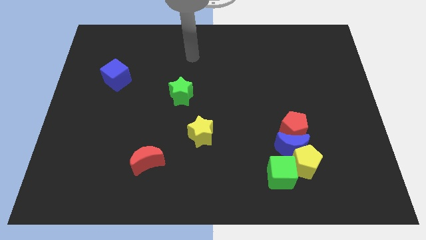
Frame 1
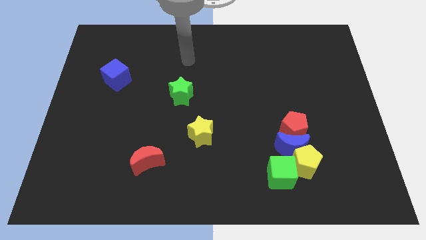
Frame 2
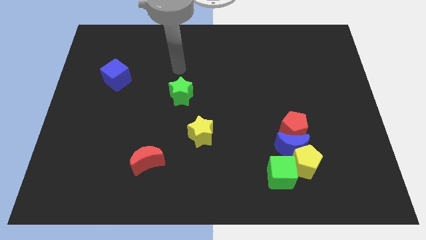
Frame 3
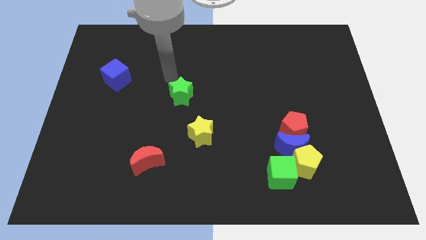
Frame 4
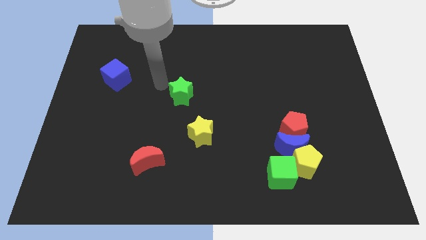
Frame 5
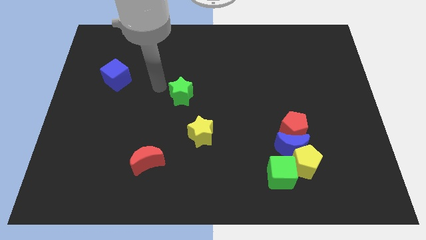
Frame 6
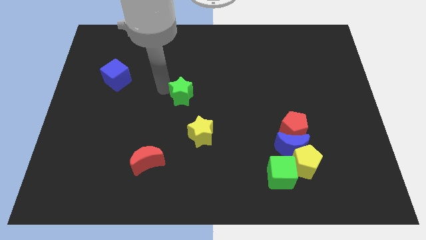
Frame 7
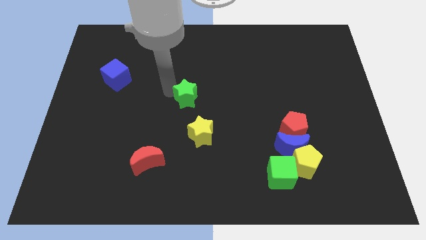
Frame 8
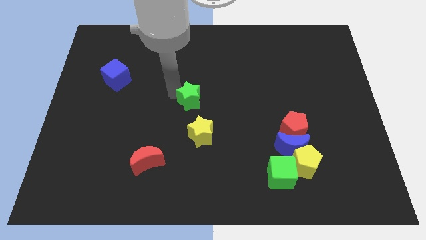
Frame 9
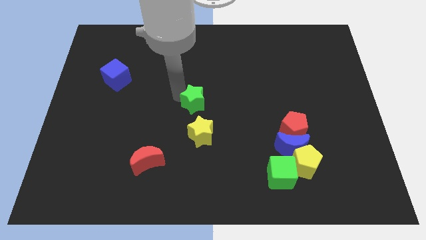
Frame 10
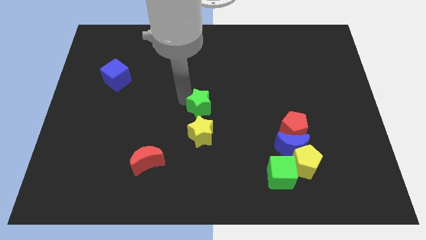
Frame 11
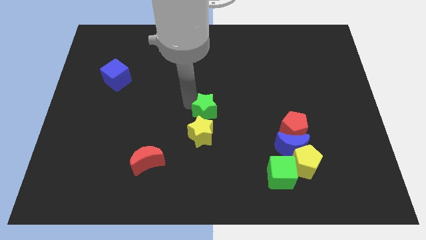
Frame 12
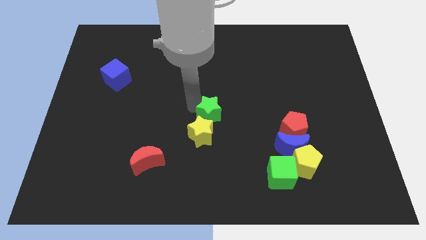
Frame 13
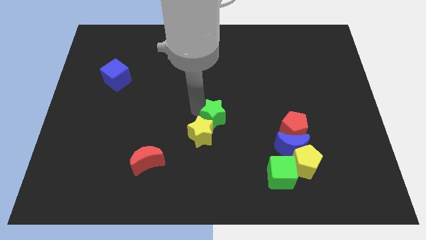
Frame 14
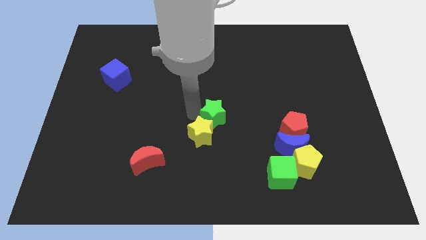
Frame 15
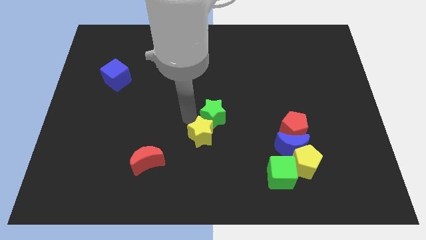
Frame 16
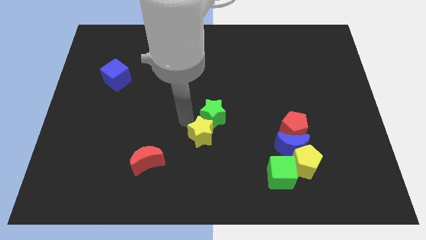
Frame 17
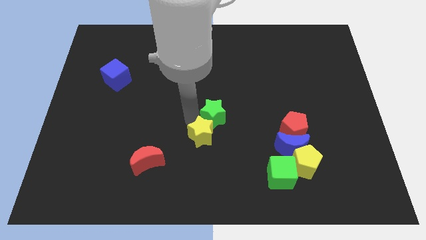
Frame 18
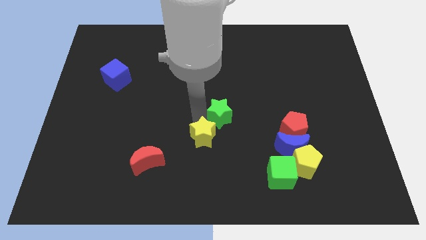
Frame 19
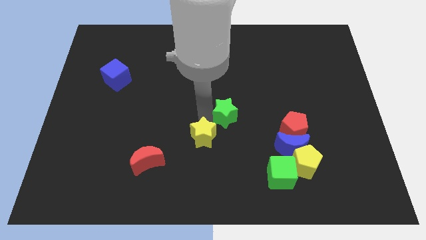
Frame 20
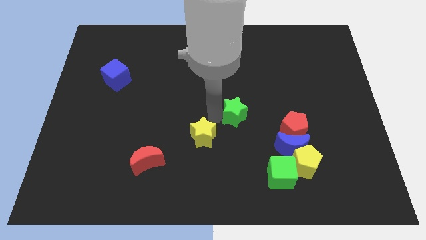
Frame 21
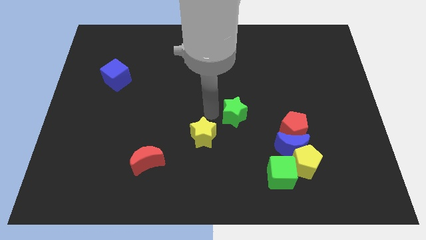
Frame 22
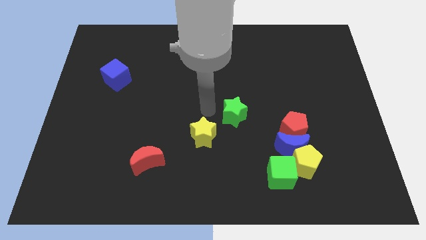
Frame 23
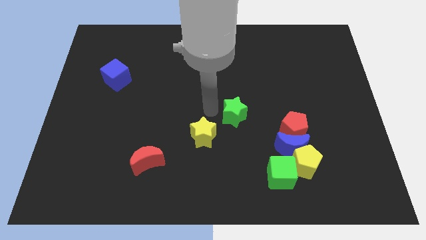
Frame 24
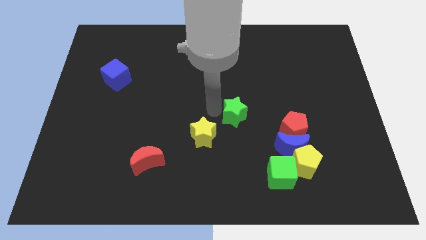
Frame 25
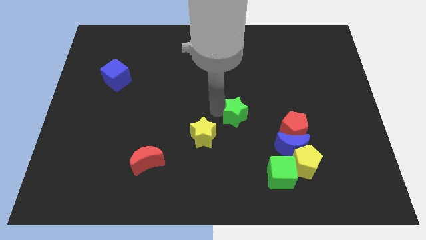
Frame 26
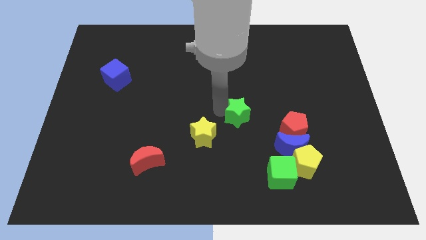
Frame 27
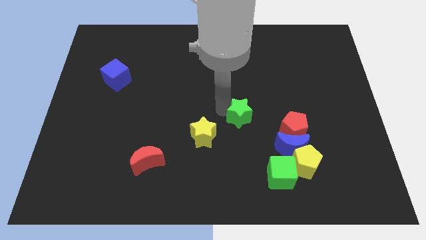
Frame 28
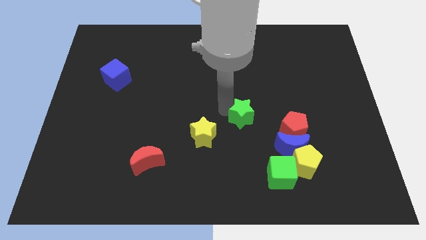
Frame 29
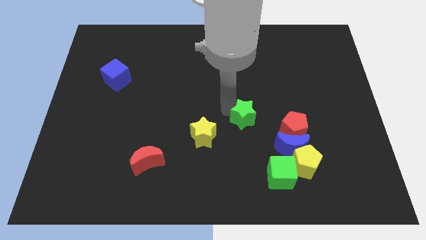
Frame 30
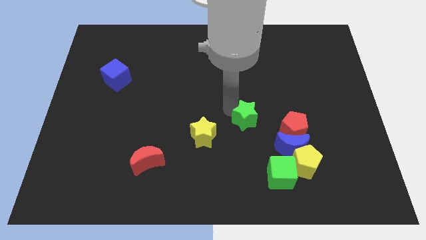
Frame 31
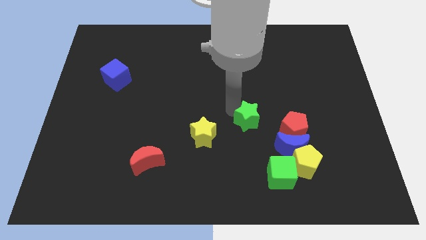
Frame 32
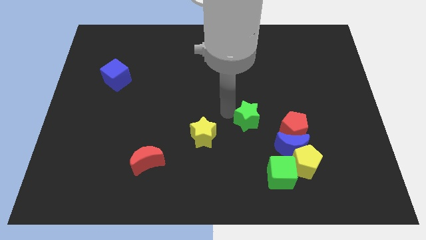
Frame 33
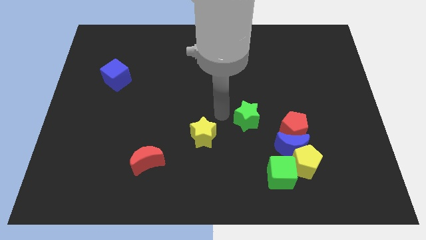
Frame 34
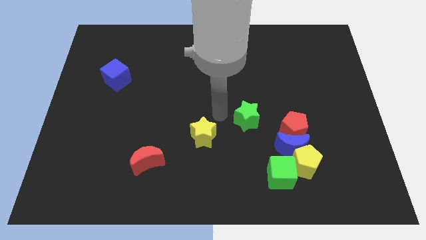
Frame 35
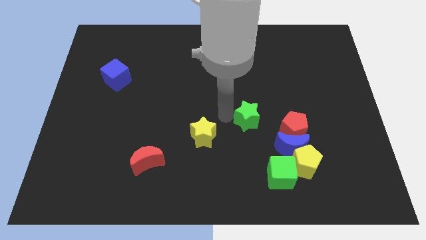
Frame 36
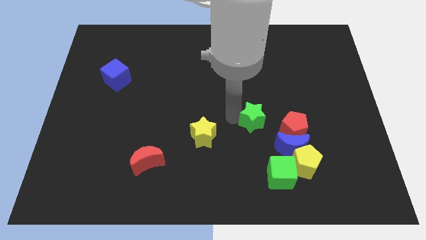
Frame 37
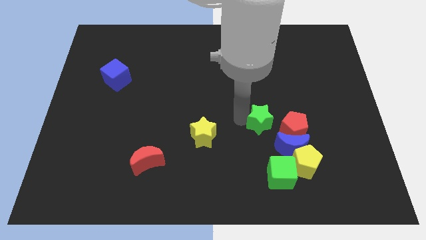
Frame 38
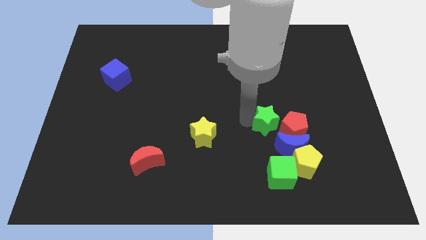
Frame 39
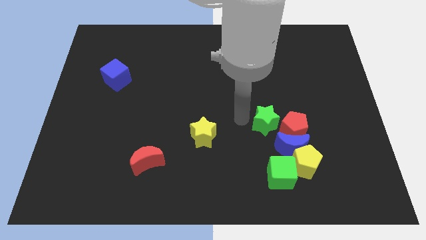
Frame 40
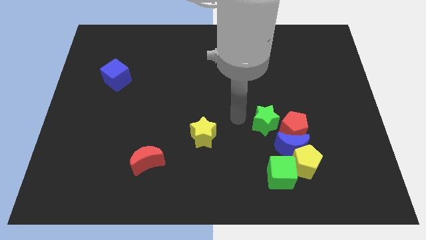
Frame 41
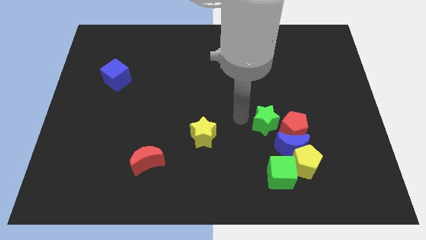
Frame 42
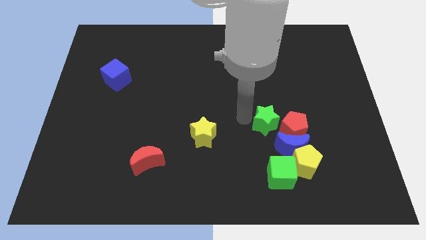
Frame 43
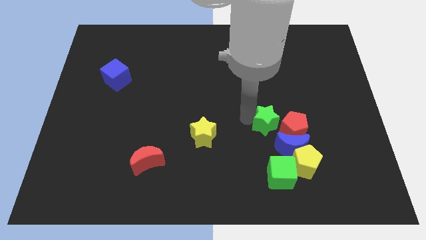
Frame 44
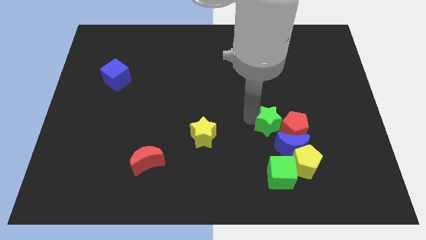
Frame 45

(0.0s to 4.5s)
push the green star close to the red pentagon

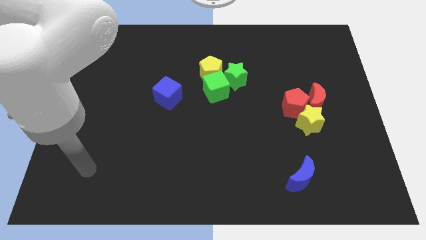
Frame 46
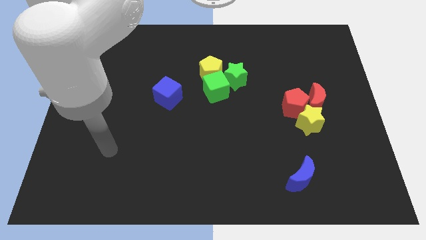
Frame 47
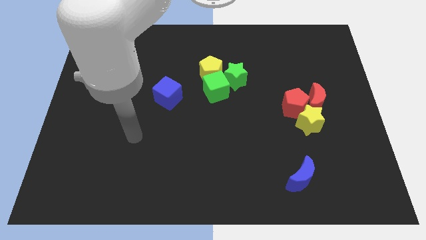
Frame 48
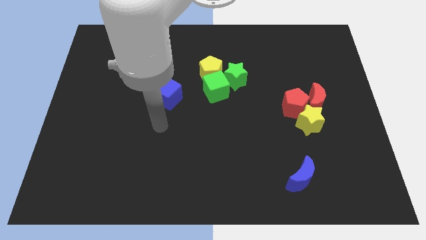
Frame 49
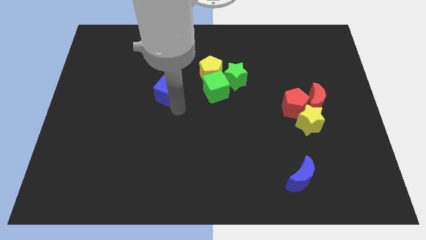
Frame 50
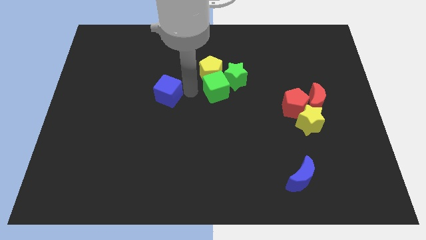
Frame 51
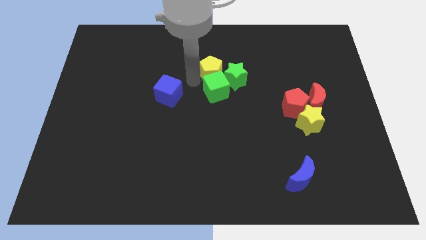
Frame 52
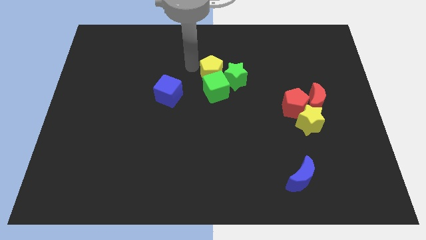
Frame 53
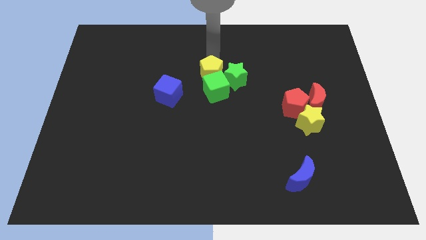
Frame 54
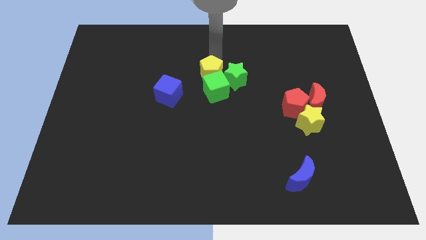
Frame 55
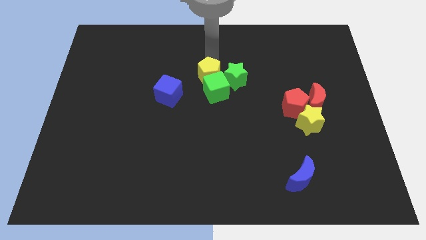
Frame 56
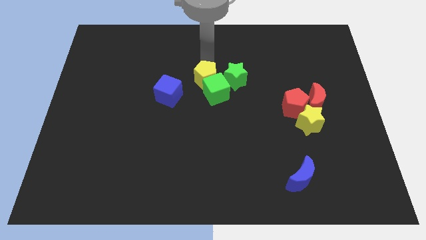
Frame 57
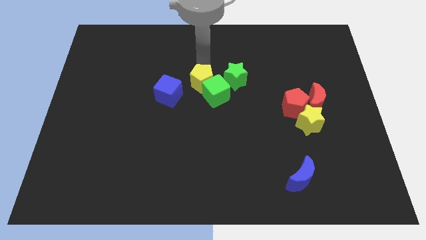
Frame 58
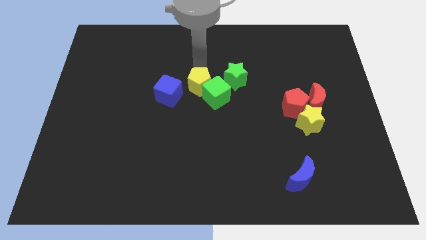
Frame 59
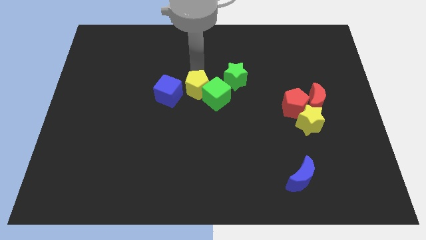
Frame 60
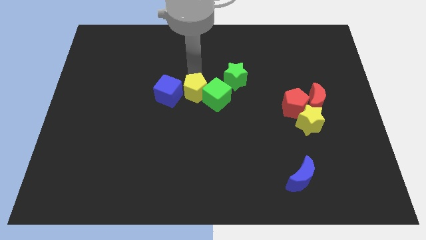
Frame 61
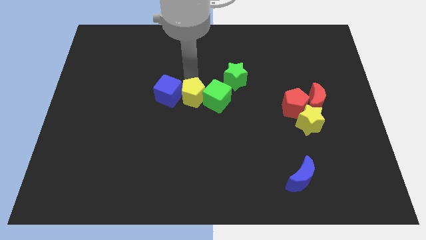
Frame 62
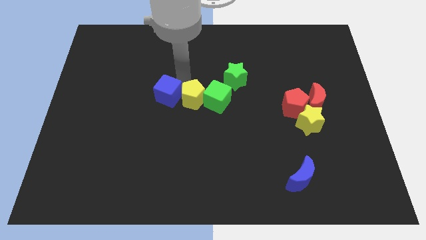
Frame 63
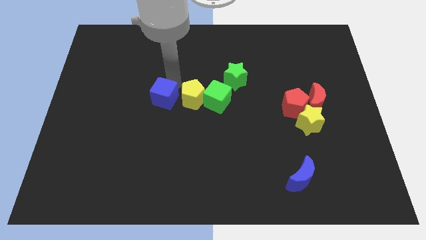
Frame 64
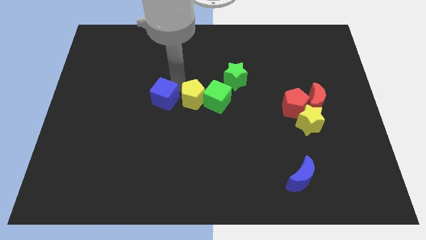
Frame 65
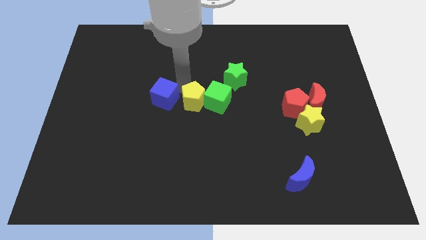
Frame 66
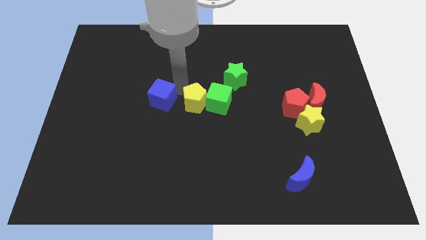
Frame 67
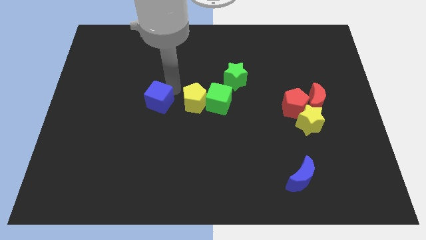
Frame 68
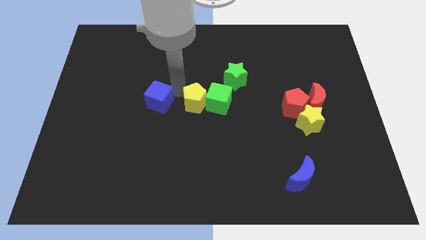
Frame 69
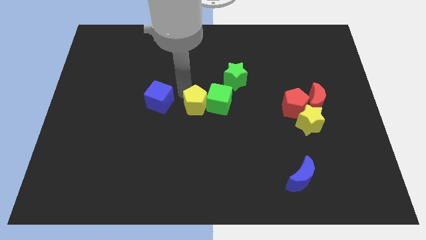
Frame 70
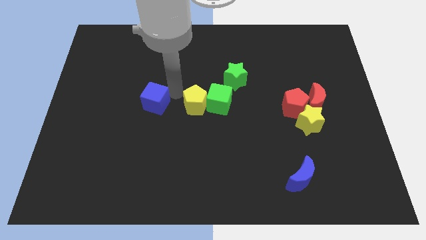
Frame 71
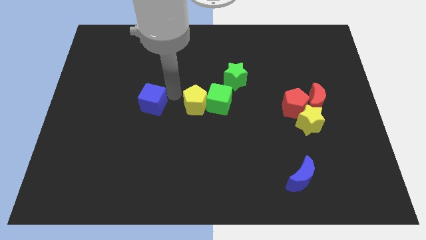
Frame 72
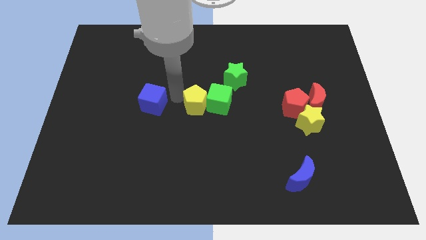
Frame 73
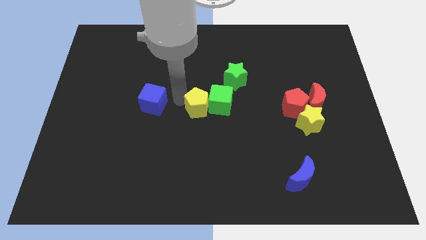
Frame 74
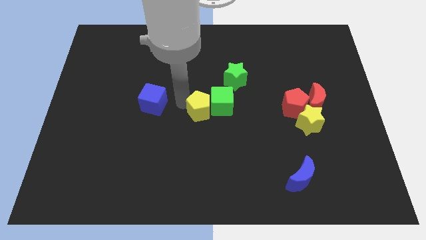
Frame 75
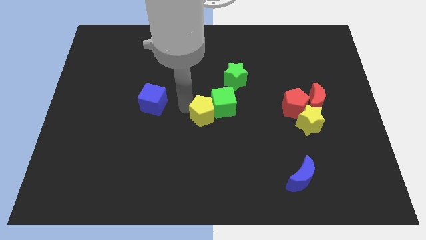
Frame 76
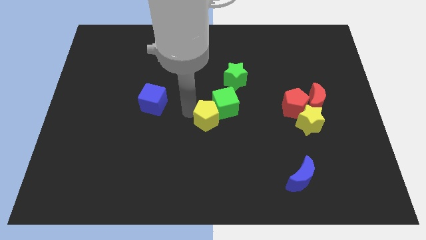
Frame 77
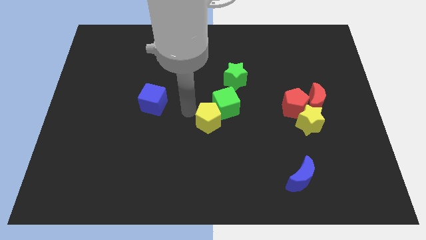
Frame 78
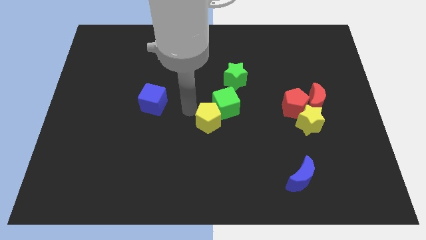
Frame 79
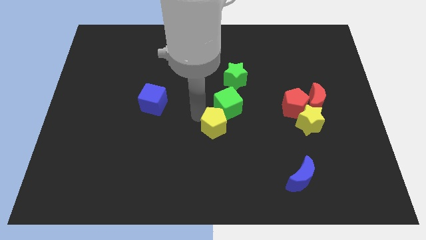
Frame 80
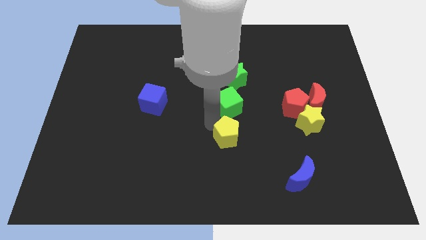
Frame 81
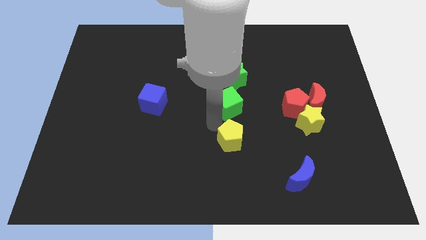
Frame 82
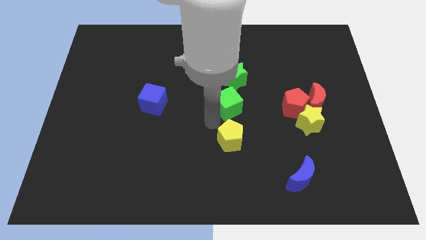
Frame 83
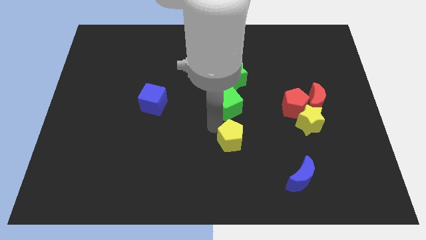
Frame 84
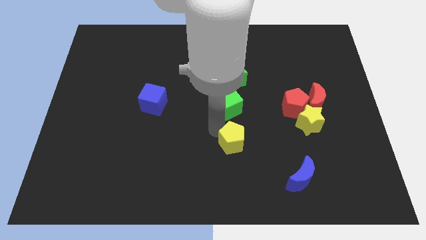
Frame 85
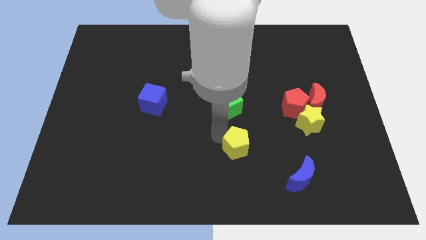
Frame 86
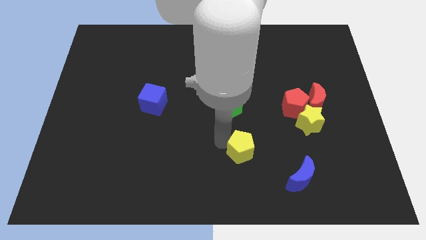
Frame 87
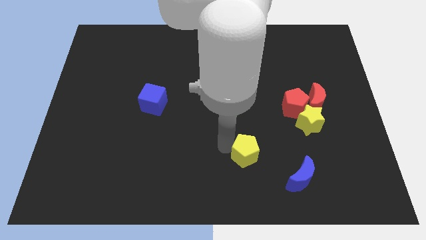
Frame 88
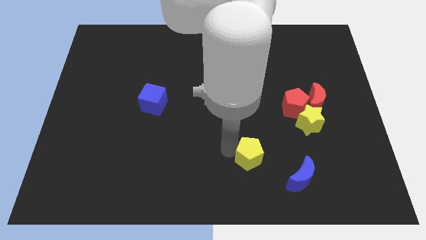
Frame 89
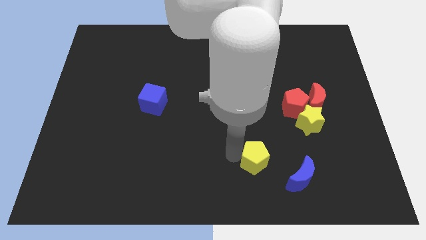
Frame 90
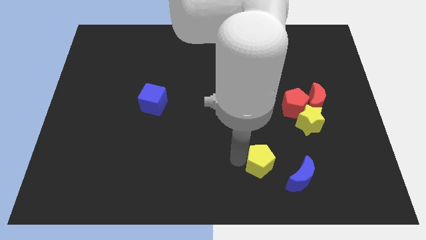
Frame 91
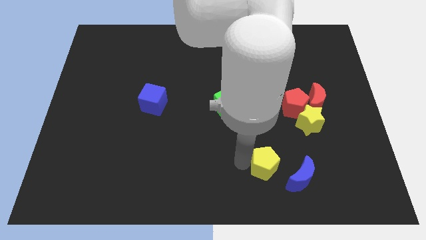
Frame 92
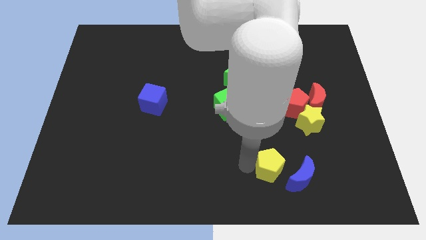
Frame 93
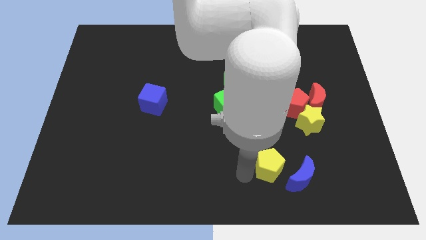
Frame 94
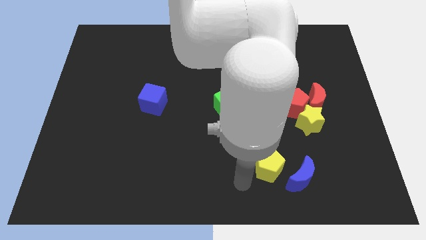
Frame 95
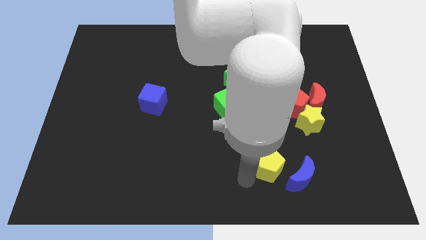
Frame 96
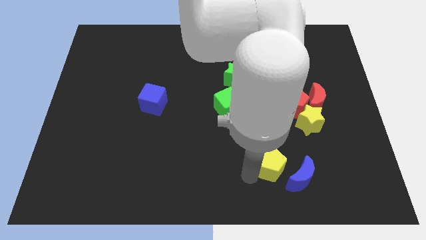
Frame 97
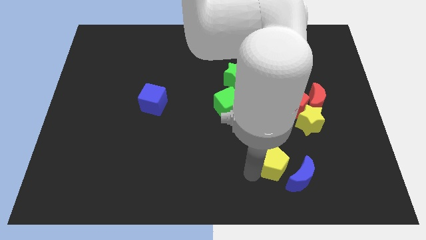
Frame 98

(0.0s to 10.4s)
slide the yellow pentagon close to the blue moon
